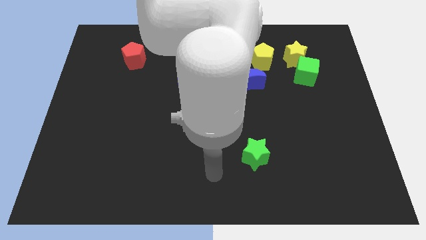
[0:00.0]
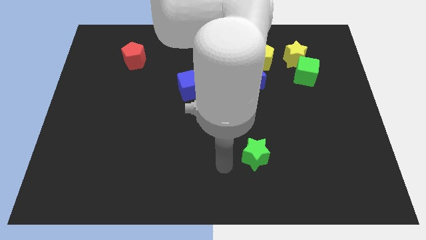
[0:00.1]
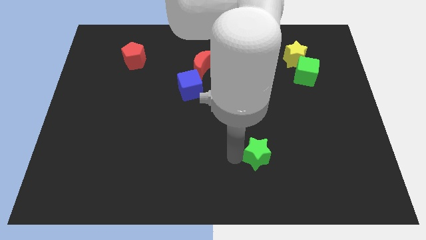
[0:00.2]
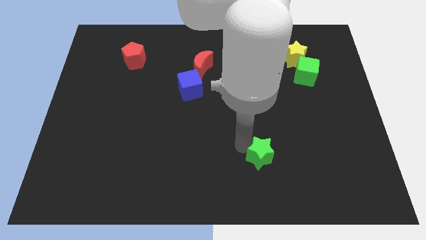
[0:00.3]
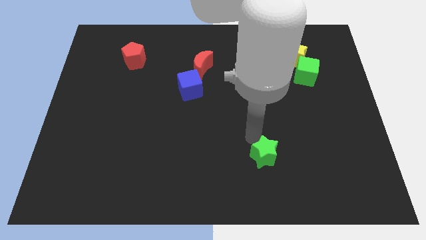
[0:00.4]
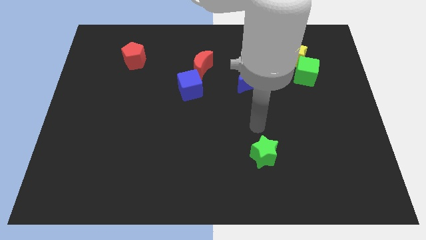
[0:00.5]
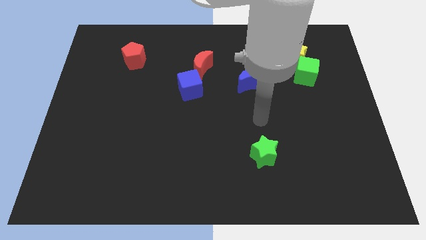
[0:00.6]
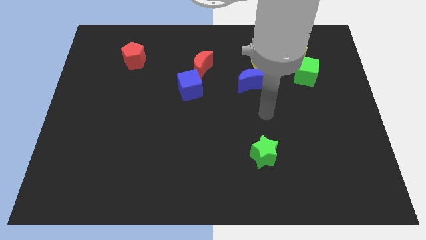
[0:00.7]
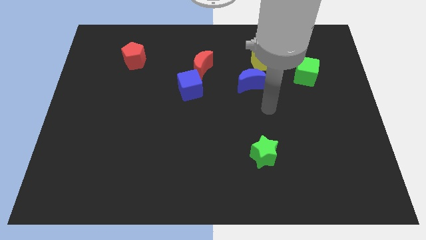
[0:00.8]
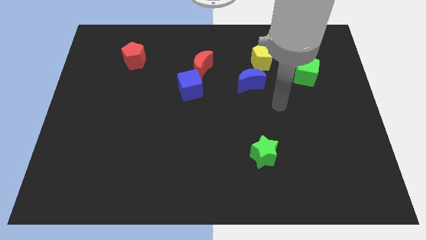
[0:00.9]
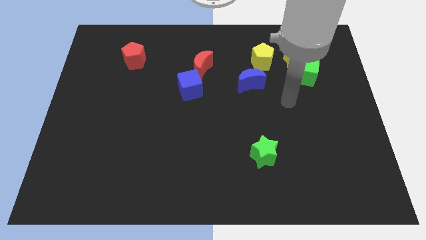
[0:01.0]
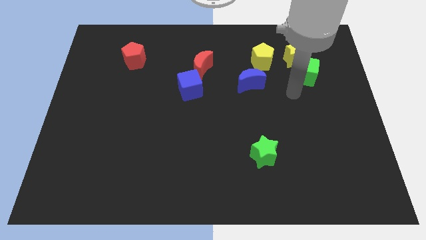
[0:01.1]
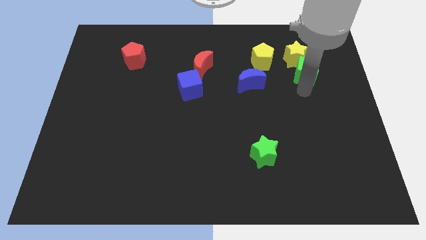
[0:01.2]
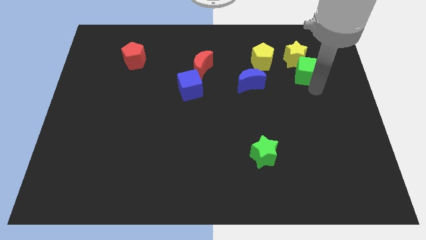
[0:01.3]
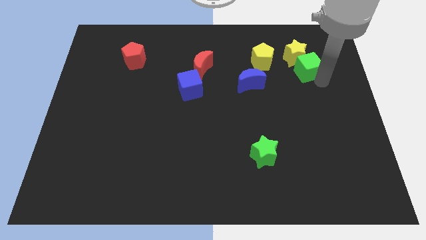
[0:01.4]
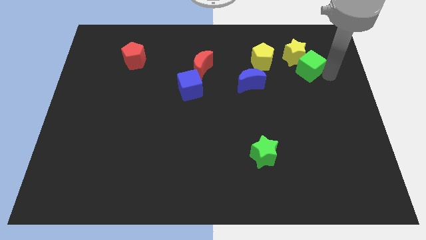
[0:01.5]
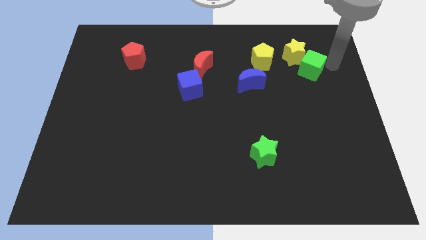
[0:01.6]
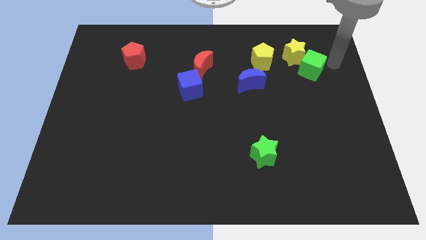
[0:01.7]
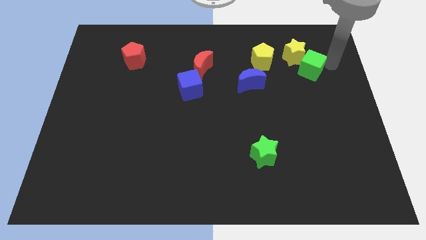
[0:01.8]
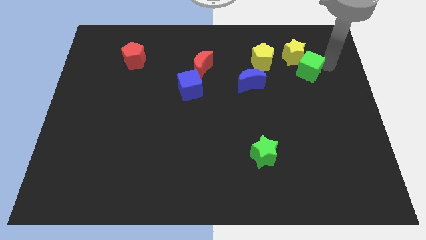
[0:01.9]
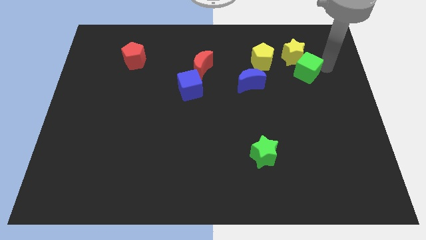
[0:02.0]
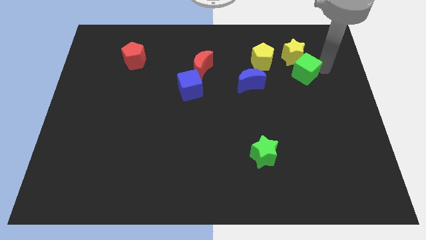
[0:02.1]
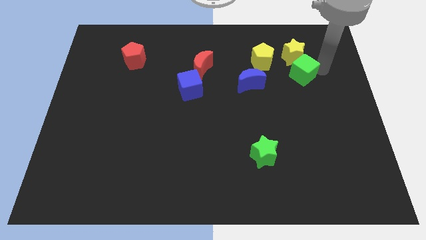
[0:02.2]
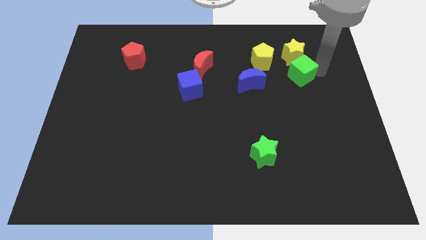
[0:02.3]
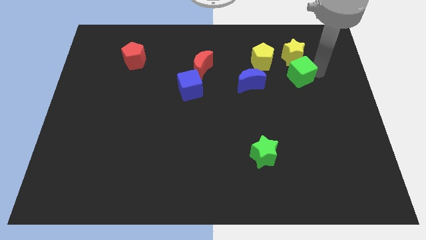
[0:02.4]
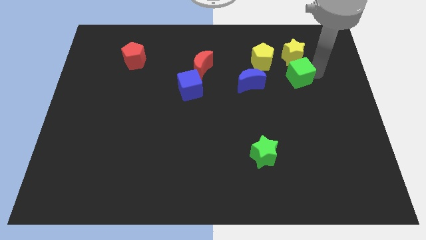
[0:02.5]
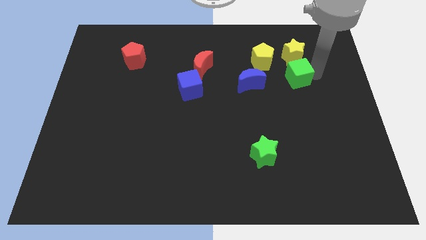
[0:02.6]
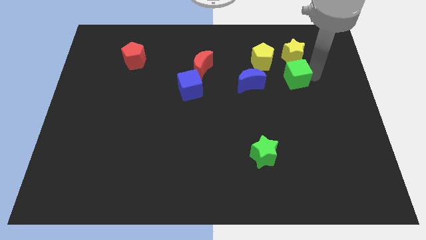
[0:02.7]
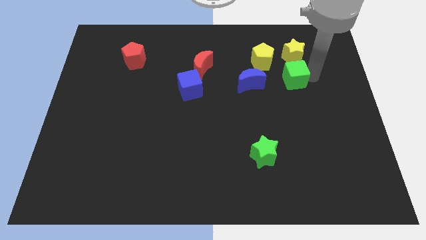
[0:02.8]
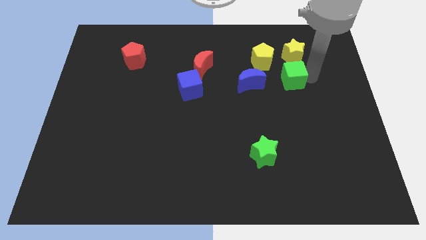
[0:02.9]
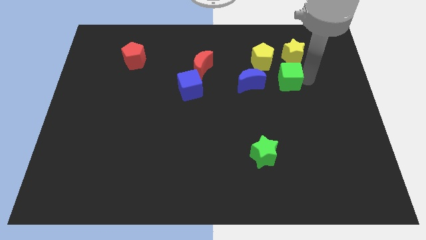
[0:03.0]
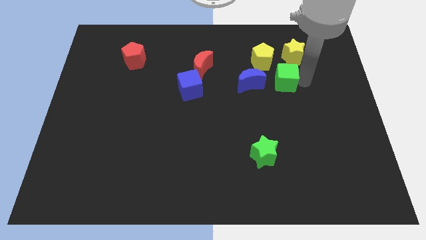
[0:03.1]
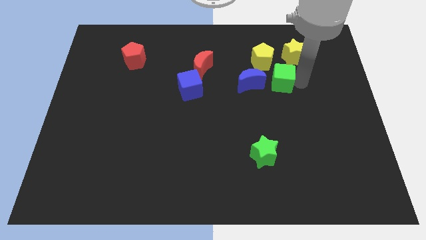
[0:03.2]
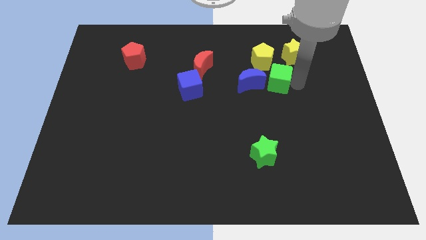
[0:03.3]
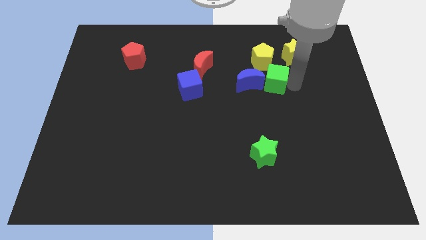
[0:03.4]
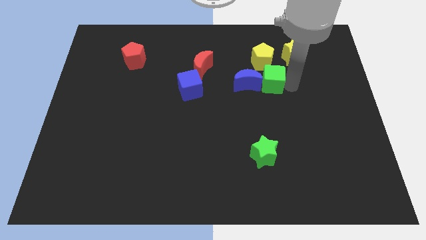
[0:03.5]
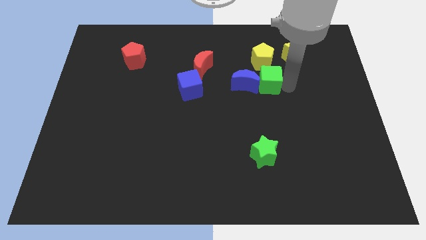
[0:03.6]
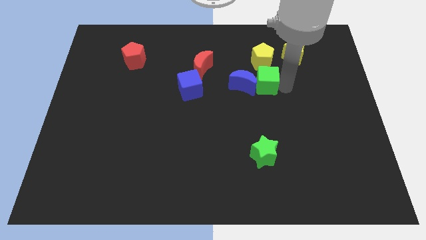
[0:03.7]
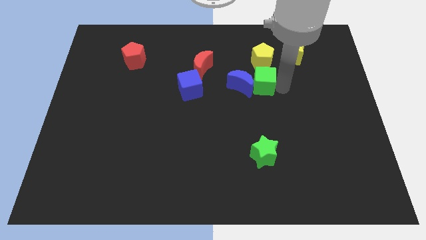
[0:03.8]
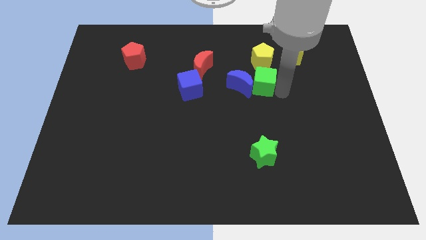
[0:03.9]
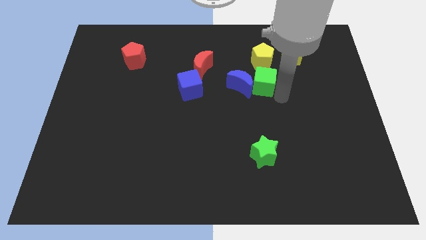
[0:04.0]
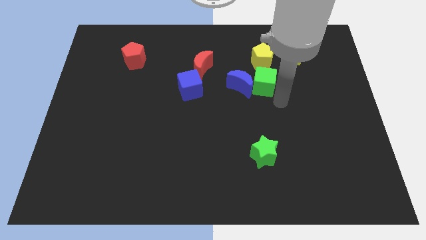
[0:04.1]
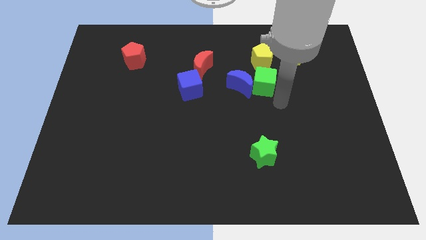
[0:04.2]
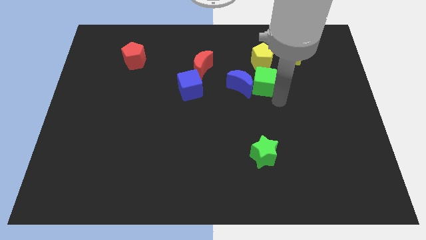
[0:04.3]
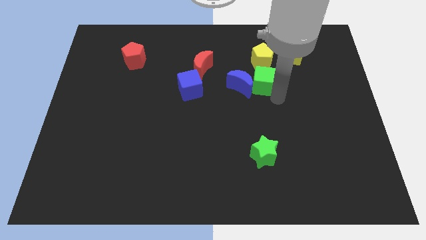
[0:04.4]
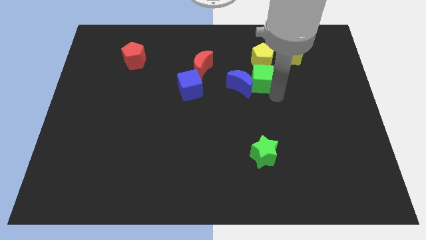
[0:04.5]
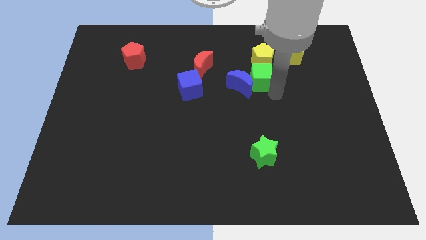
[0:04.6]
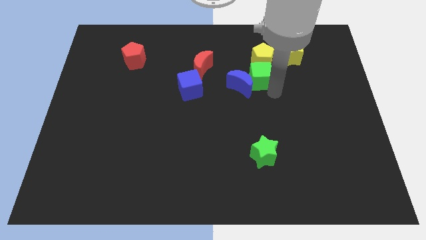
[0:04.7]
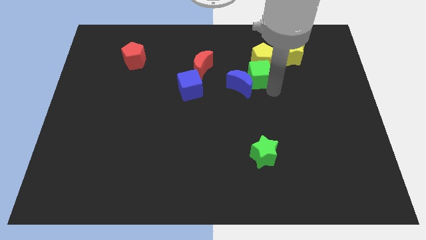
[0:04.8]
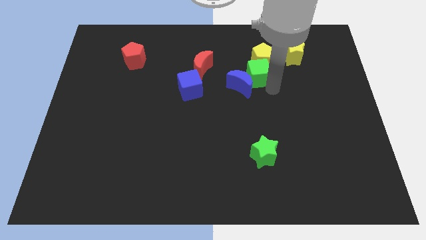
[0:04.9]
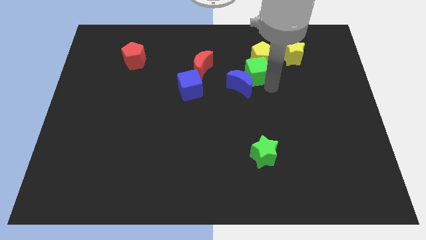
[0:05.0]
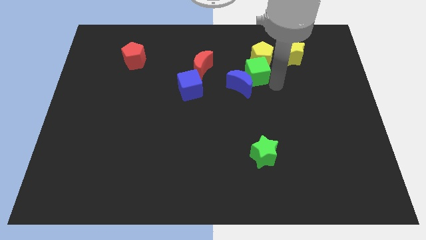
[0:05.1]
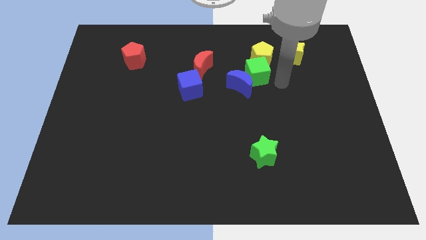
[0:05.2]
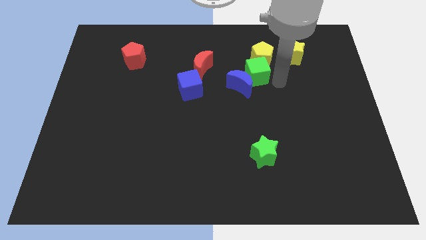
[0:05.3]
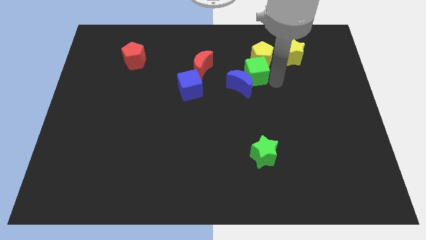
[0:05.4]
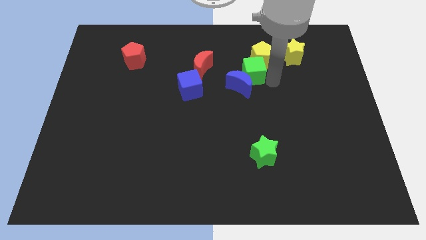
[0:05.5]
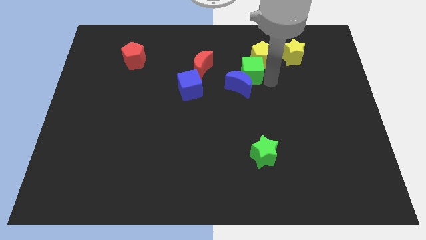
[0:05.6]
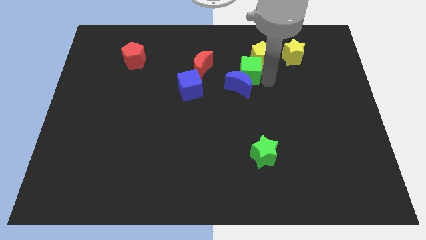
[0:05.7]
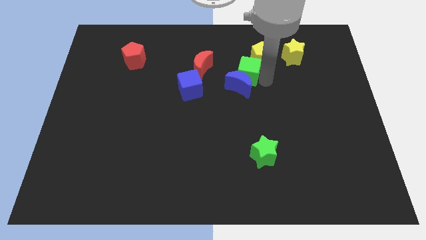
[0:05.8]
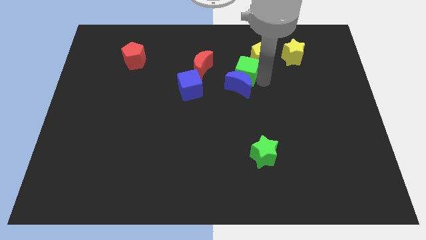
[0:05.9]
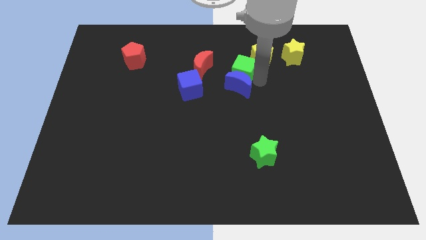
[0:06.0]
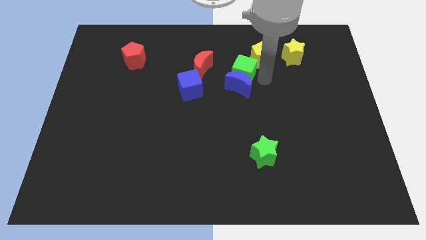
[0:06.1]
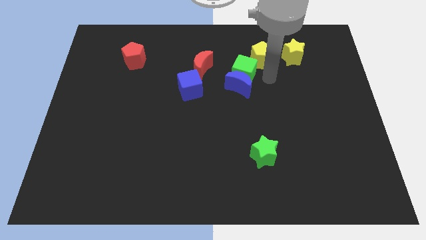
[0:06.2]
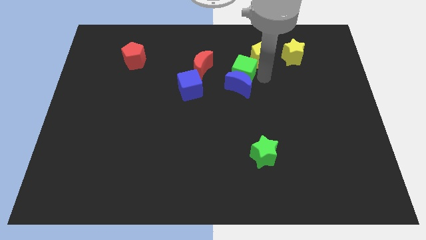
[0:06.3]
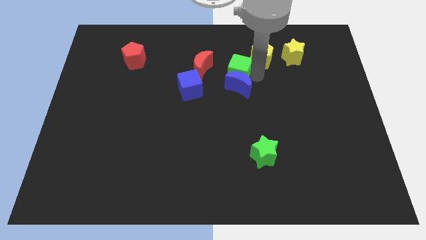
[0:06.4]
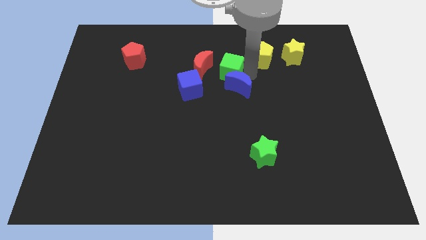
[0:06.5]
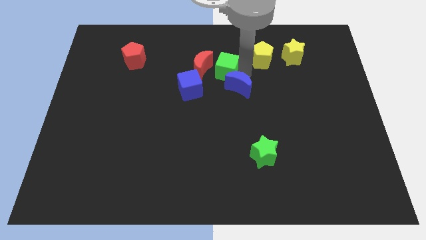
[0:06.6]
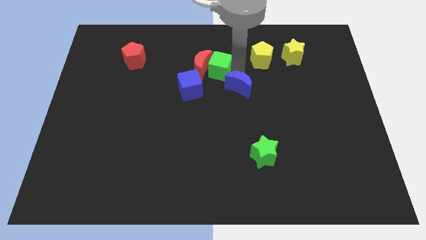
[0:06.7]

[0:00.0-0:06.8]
put the green cube close to the red moon

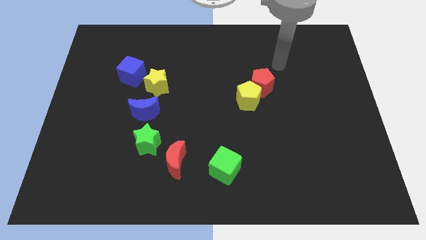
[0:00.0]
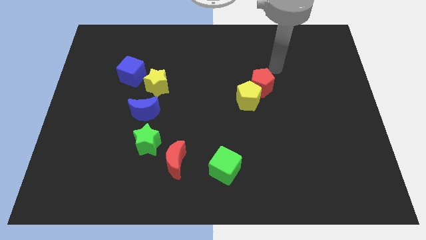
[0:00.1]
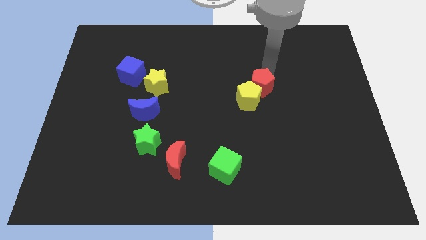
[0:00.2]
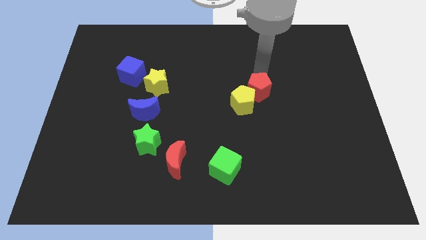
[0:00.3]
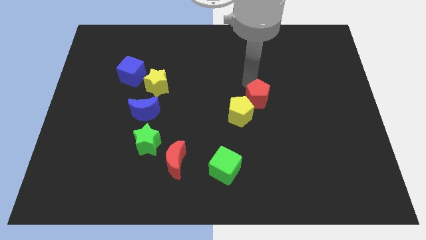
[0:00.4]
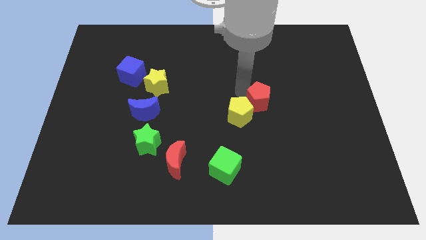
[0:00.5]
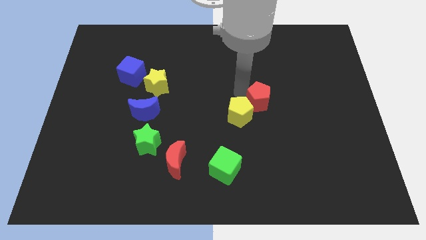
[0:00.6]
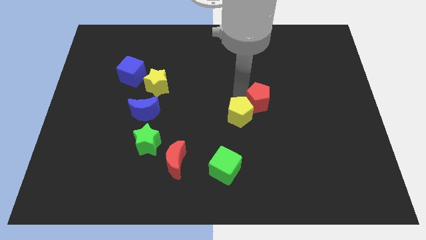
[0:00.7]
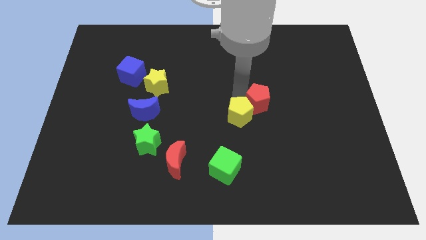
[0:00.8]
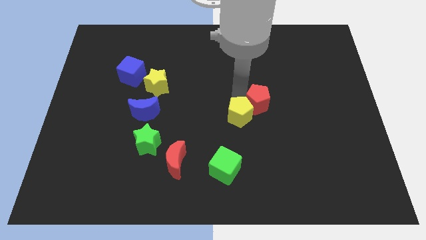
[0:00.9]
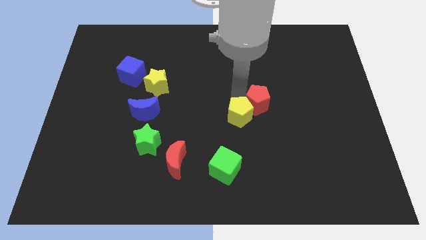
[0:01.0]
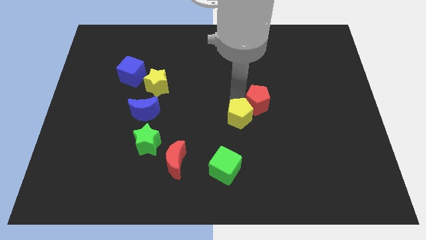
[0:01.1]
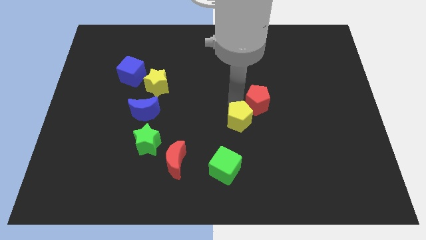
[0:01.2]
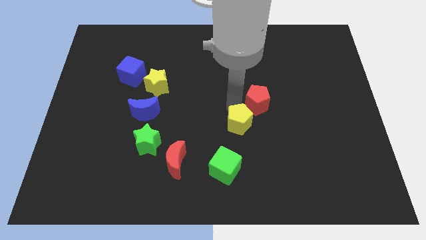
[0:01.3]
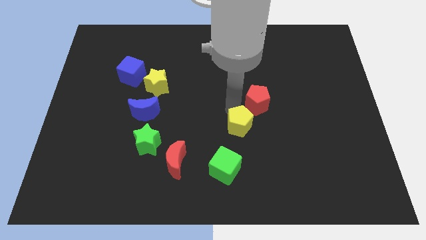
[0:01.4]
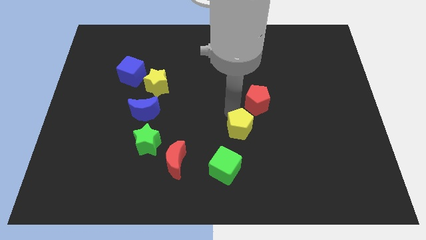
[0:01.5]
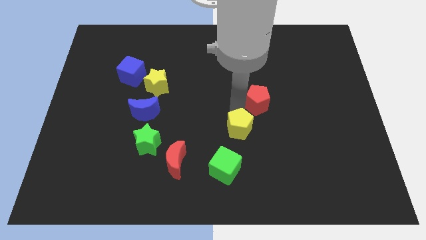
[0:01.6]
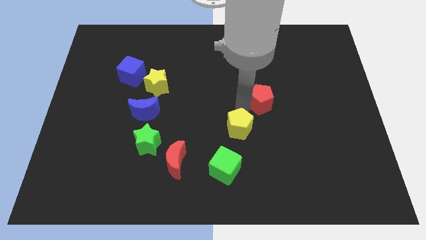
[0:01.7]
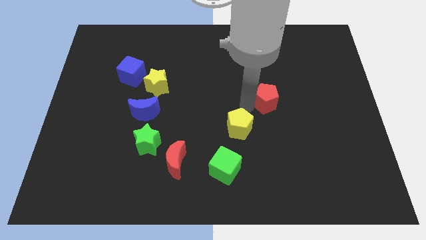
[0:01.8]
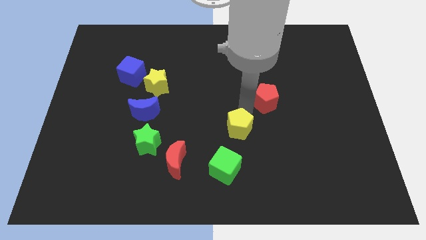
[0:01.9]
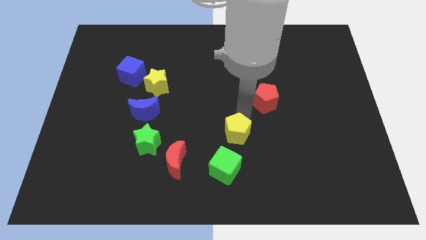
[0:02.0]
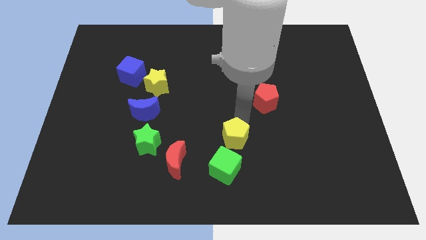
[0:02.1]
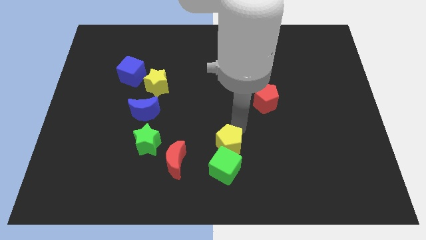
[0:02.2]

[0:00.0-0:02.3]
push the yellow pentagon next to the green cube
